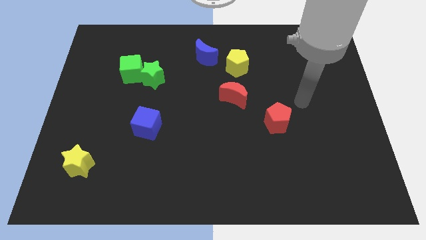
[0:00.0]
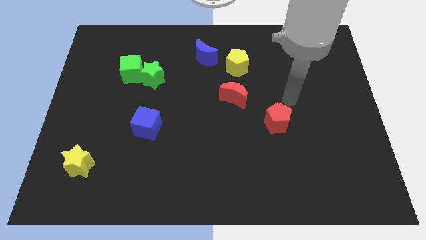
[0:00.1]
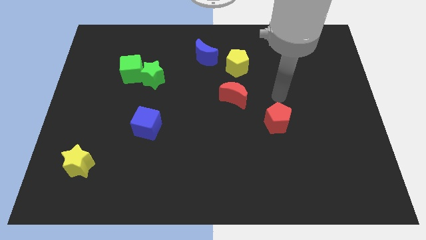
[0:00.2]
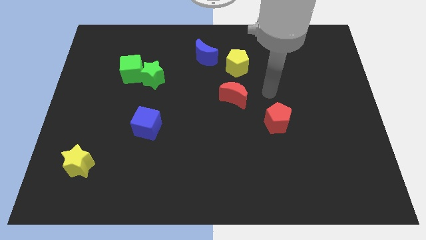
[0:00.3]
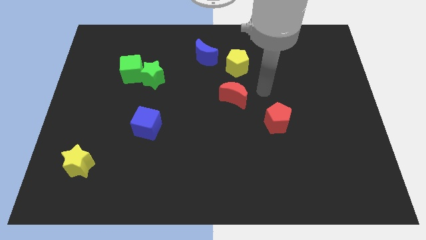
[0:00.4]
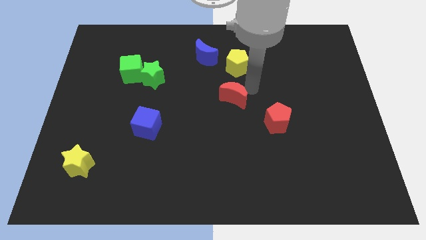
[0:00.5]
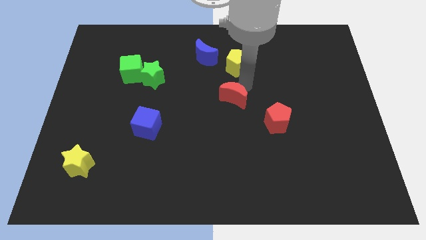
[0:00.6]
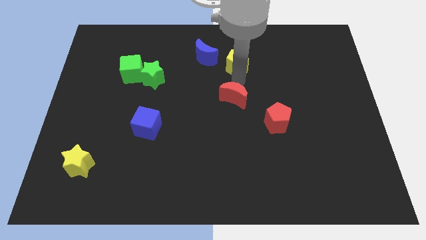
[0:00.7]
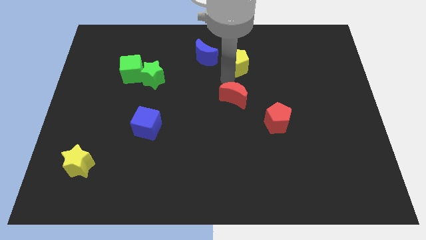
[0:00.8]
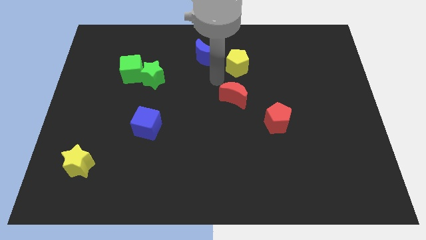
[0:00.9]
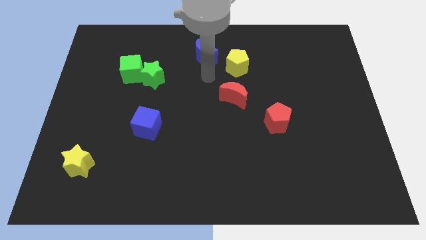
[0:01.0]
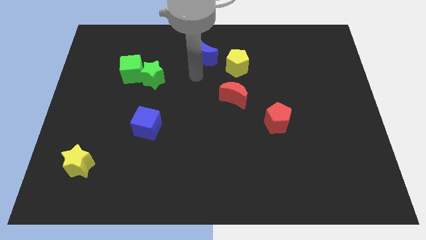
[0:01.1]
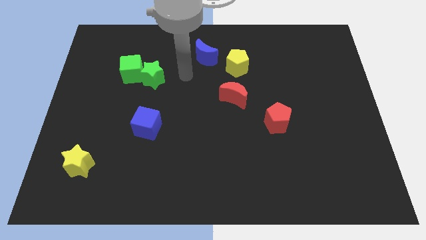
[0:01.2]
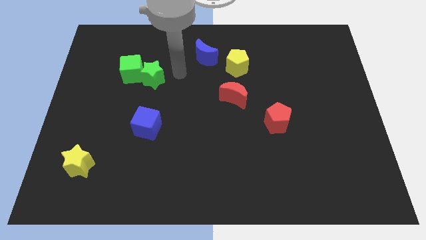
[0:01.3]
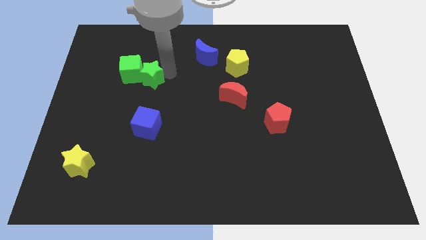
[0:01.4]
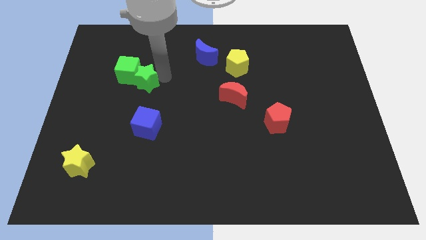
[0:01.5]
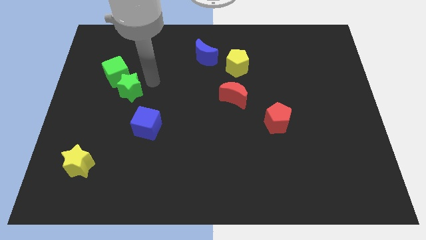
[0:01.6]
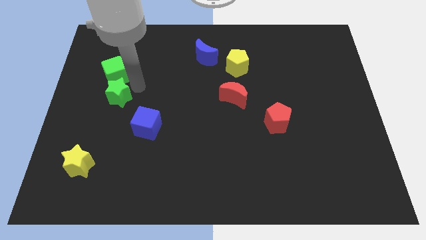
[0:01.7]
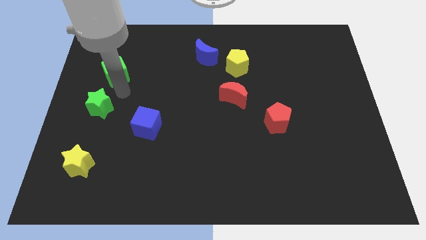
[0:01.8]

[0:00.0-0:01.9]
move the green cube away from the green star

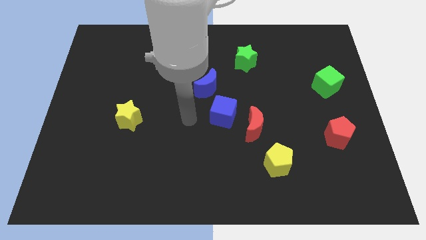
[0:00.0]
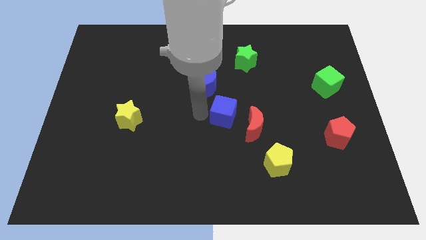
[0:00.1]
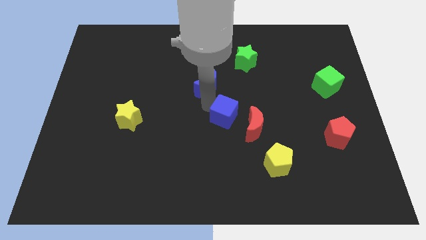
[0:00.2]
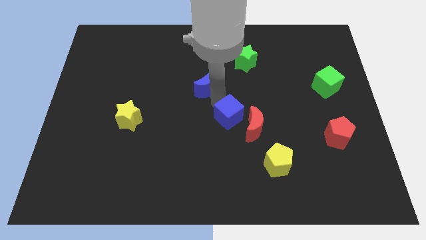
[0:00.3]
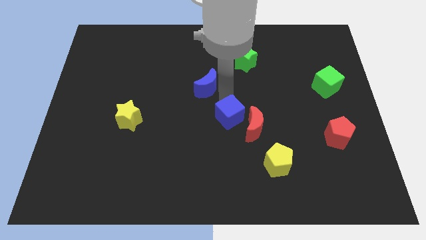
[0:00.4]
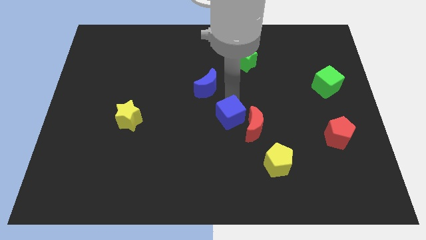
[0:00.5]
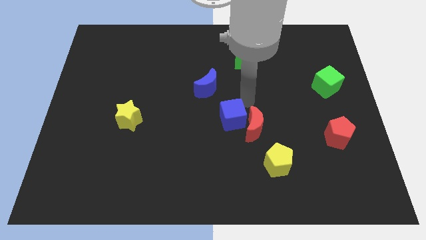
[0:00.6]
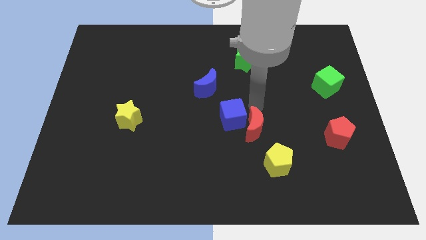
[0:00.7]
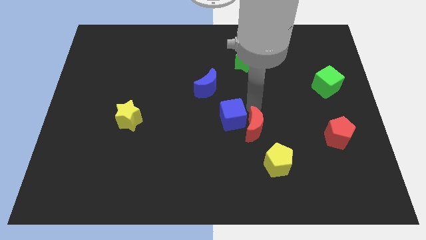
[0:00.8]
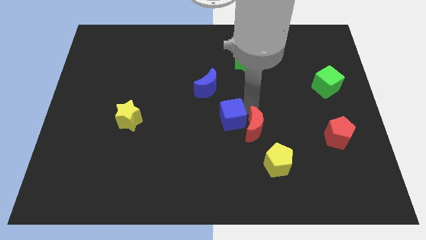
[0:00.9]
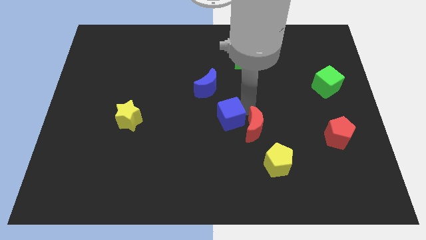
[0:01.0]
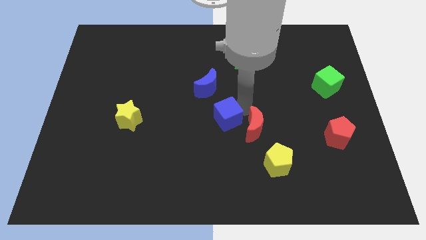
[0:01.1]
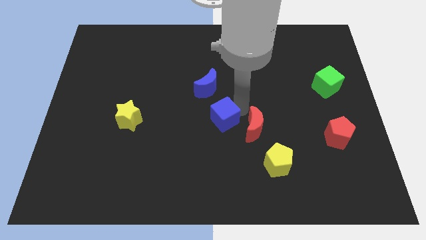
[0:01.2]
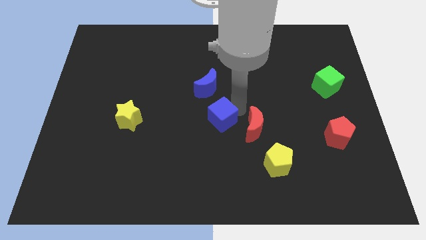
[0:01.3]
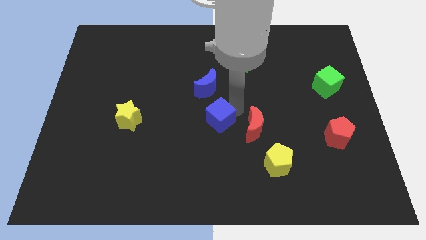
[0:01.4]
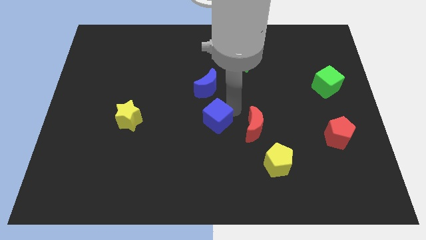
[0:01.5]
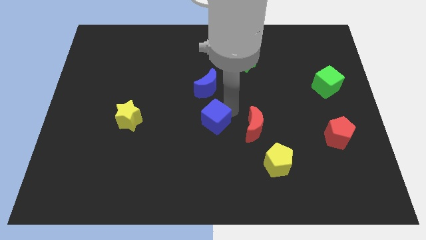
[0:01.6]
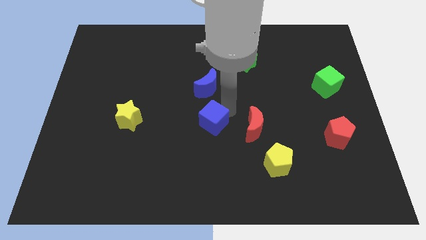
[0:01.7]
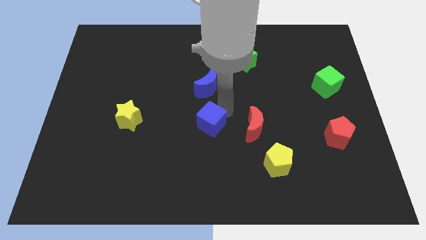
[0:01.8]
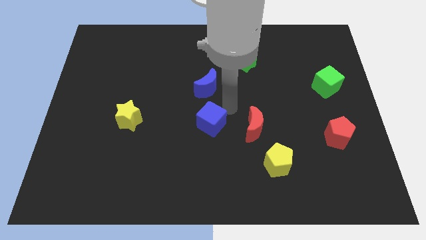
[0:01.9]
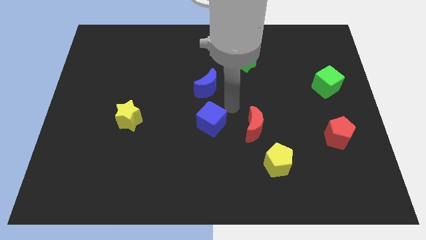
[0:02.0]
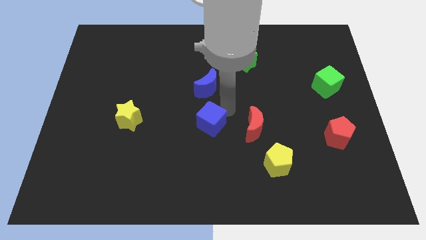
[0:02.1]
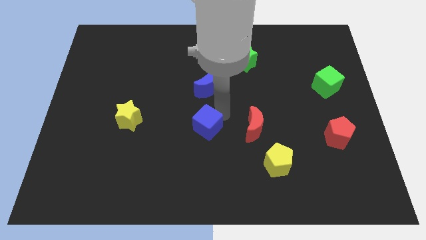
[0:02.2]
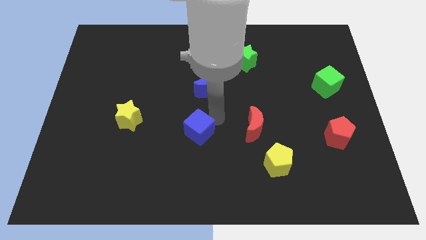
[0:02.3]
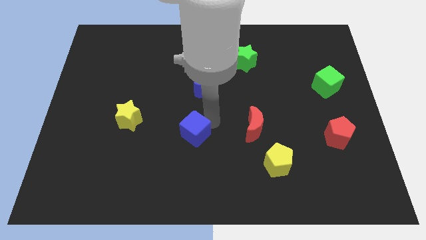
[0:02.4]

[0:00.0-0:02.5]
move the blue cube away from the red moon and blue moon

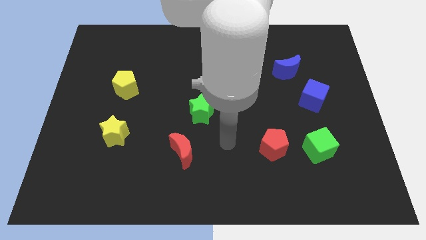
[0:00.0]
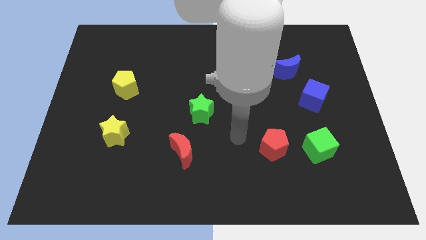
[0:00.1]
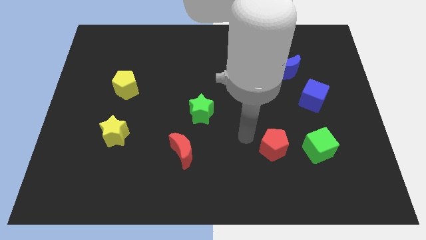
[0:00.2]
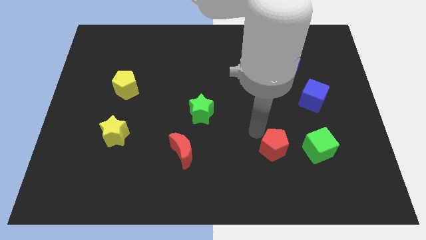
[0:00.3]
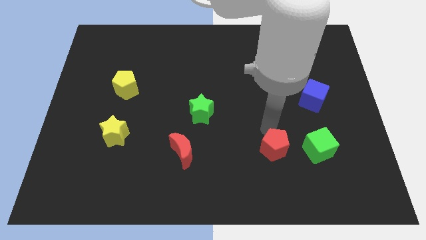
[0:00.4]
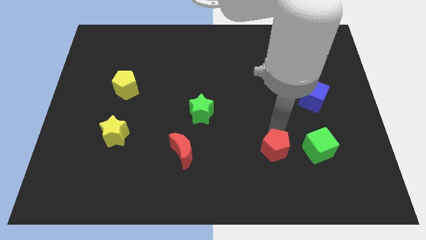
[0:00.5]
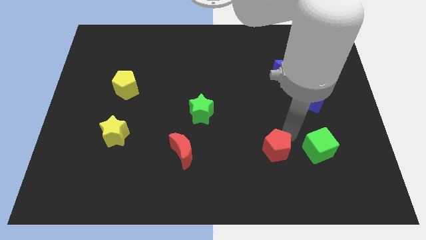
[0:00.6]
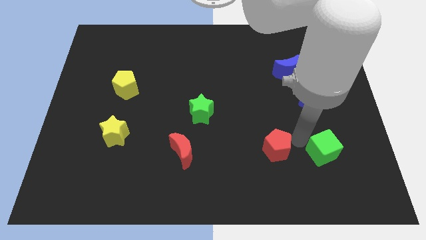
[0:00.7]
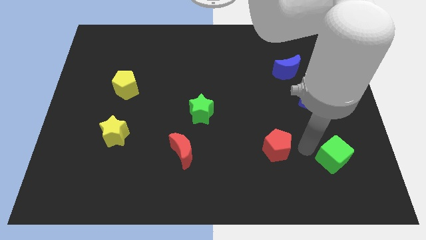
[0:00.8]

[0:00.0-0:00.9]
separate the red pentagon from the green cube

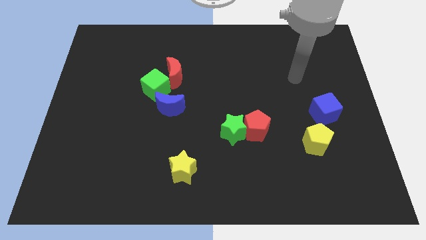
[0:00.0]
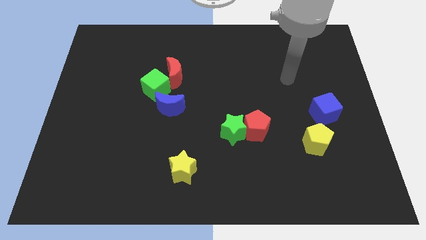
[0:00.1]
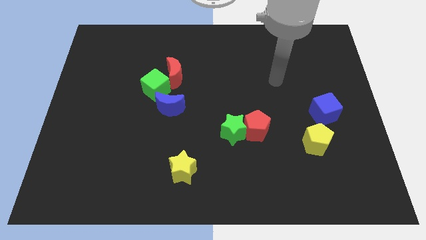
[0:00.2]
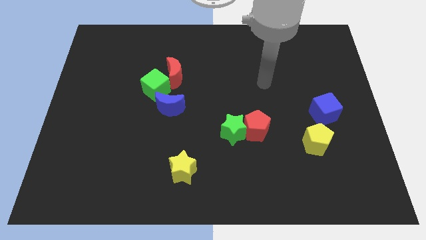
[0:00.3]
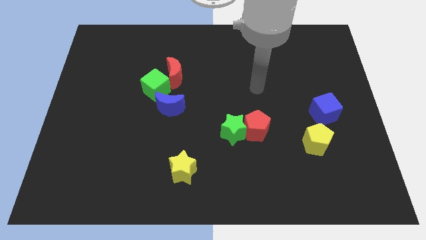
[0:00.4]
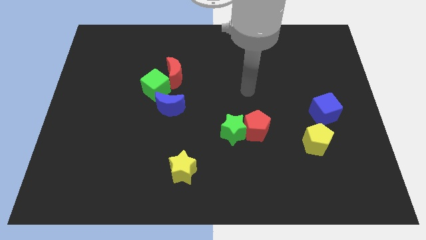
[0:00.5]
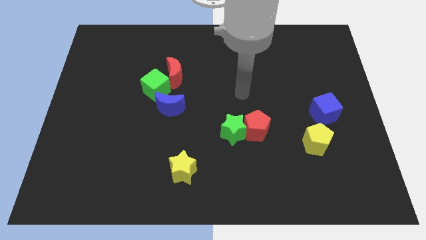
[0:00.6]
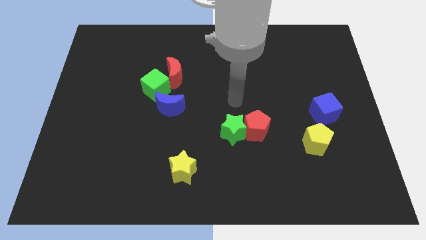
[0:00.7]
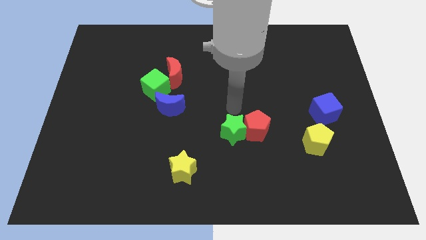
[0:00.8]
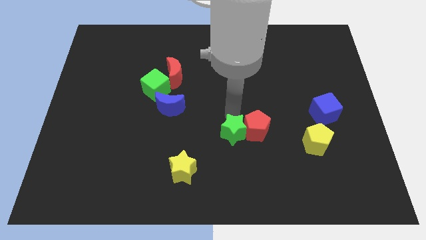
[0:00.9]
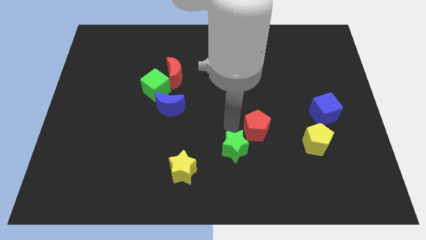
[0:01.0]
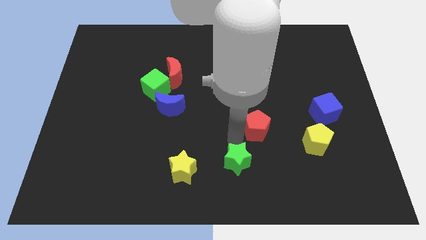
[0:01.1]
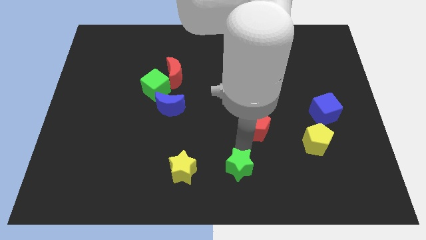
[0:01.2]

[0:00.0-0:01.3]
separate the red pentagon from the green star

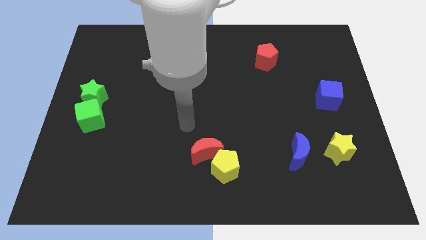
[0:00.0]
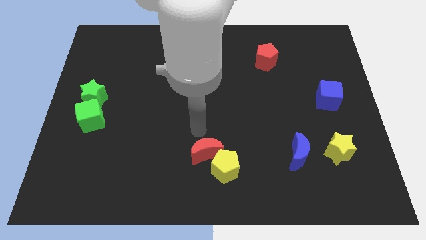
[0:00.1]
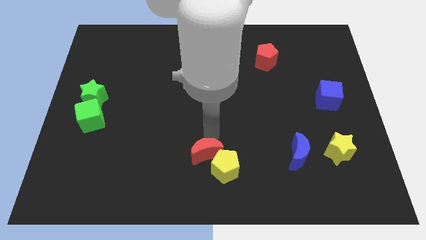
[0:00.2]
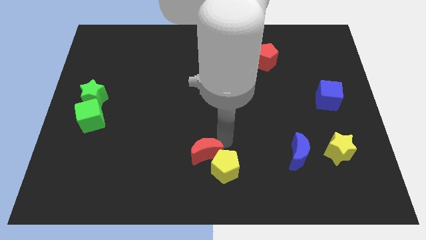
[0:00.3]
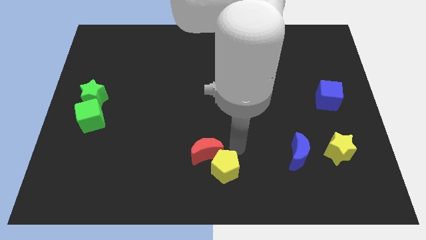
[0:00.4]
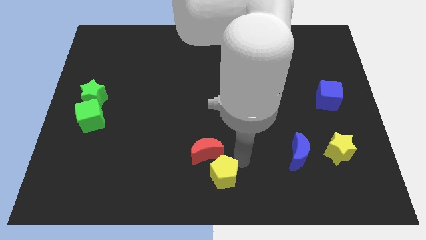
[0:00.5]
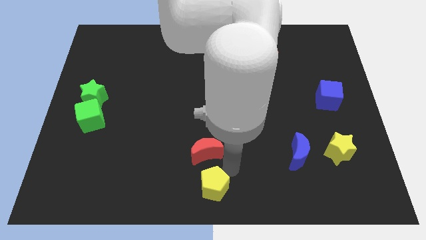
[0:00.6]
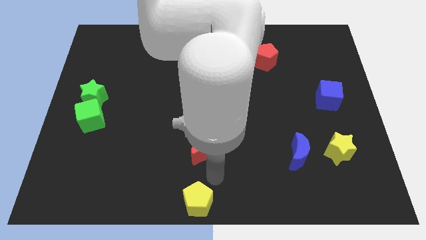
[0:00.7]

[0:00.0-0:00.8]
pull the red moon apart from the yellow pentagon

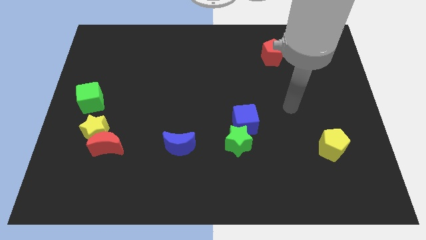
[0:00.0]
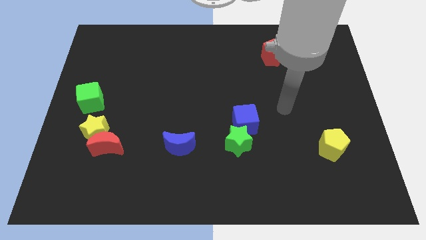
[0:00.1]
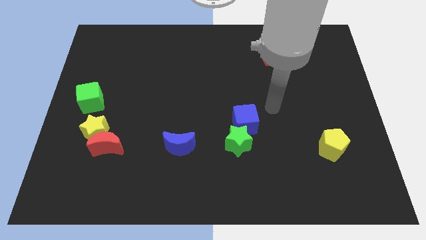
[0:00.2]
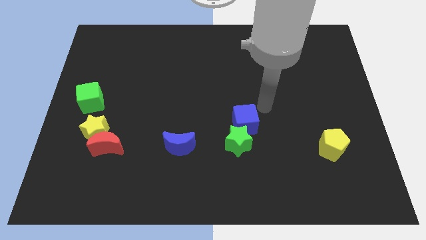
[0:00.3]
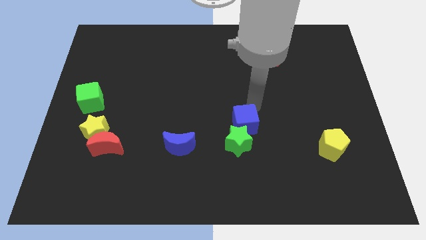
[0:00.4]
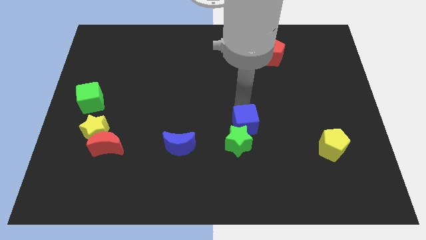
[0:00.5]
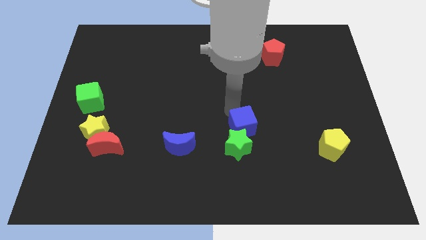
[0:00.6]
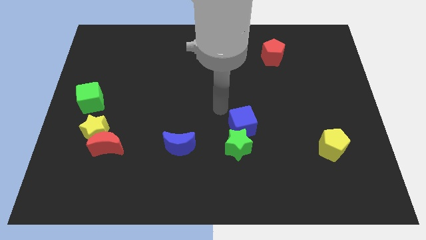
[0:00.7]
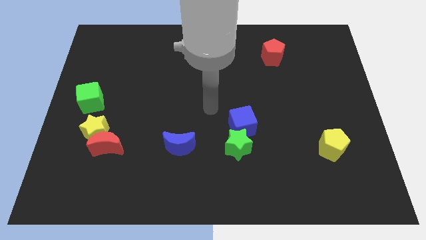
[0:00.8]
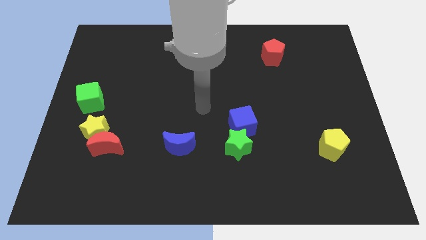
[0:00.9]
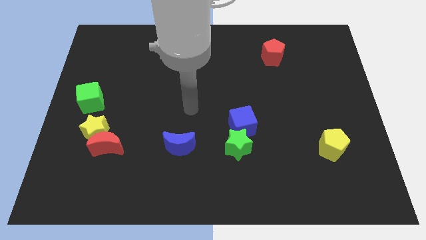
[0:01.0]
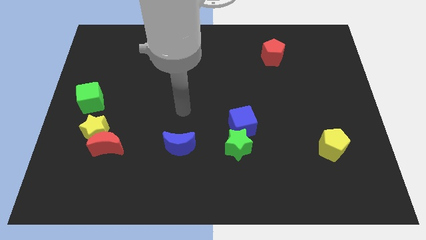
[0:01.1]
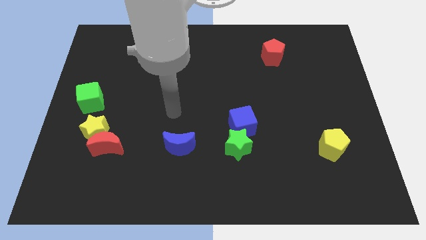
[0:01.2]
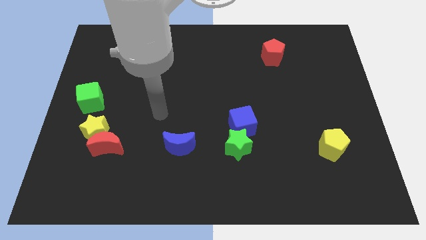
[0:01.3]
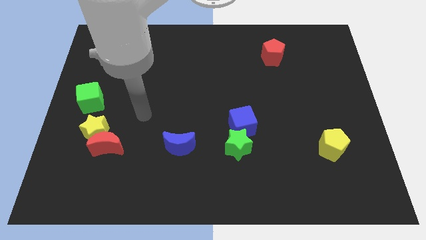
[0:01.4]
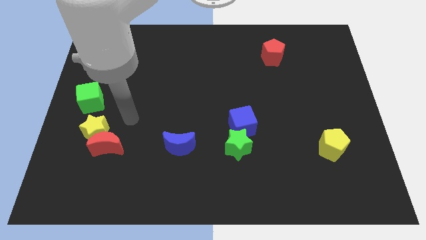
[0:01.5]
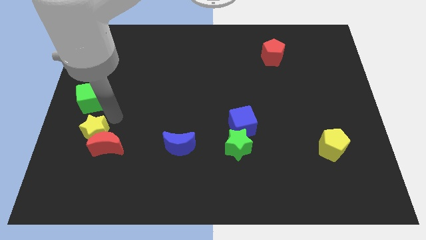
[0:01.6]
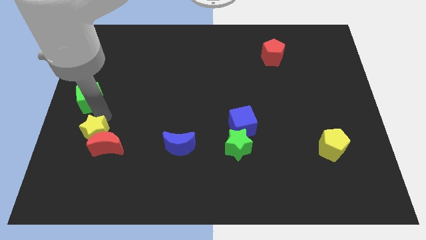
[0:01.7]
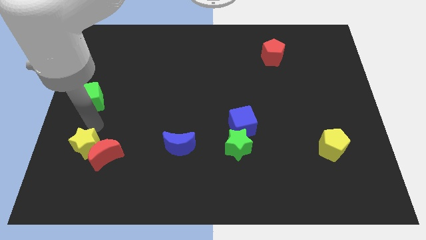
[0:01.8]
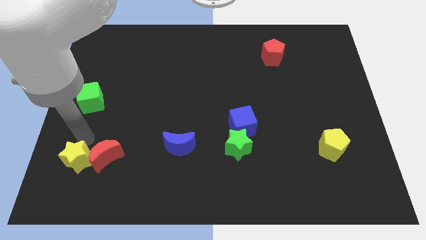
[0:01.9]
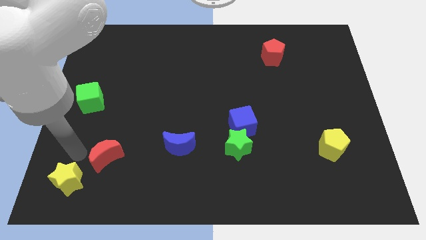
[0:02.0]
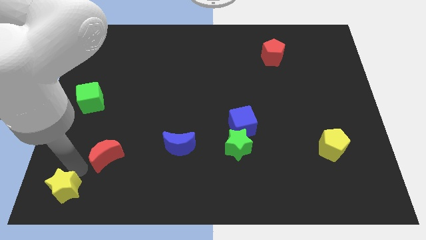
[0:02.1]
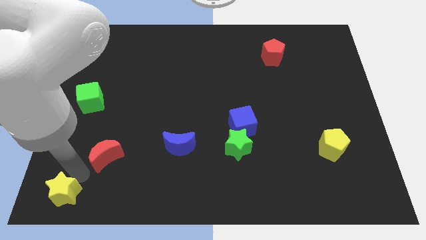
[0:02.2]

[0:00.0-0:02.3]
separate the red moon from the yellow star
